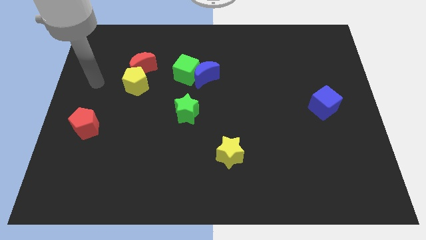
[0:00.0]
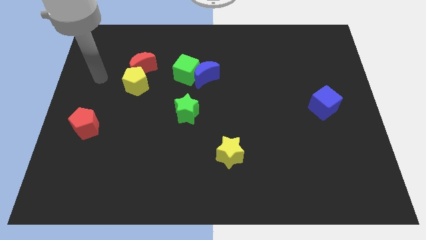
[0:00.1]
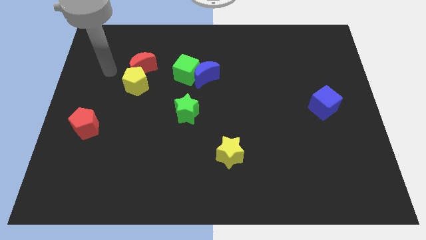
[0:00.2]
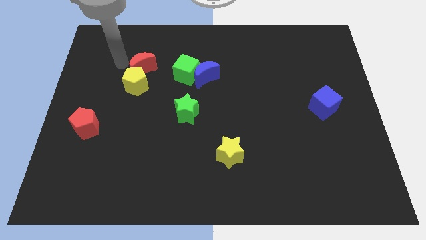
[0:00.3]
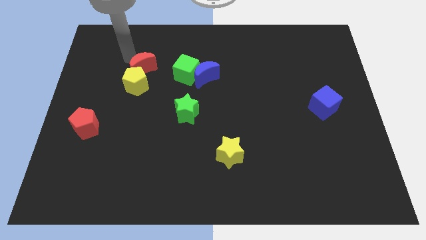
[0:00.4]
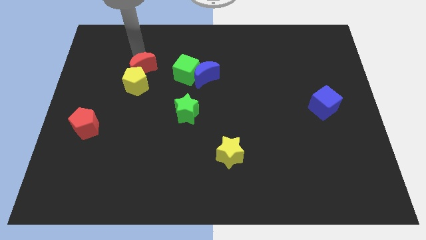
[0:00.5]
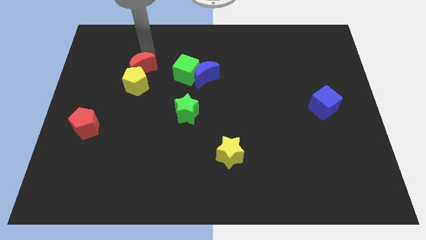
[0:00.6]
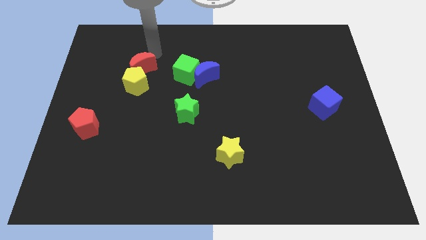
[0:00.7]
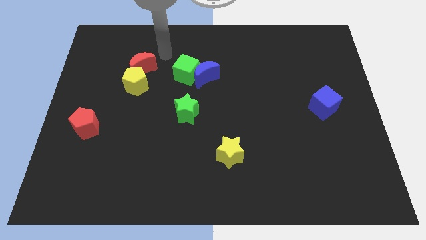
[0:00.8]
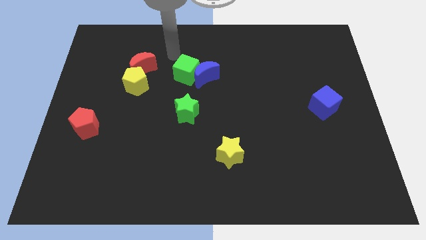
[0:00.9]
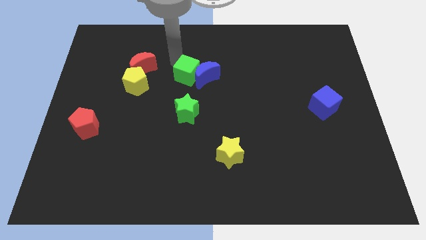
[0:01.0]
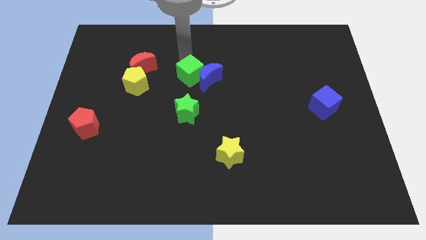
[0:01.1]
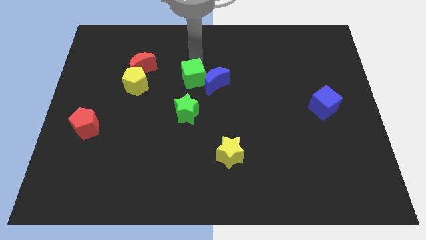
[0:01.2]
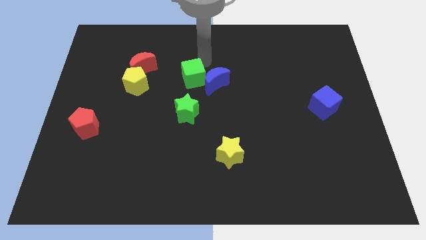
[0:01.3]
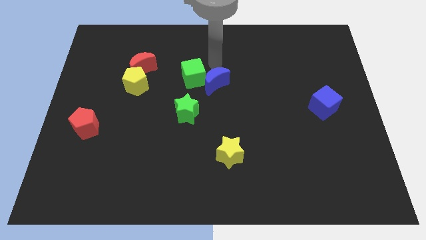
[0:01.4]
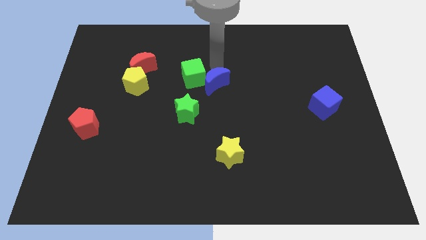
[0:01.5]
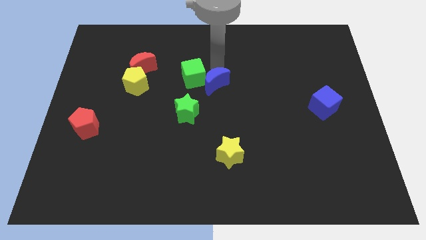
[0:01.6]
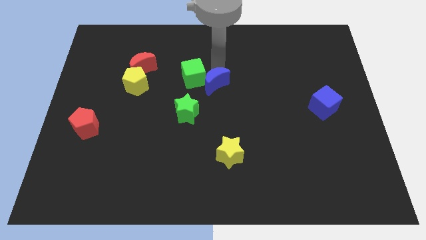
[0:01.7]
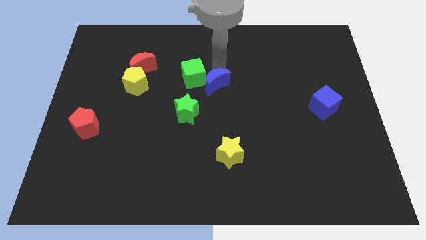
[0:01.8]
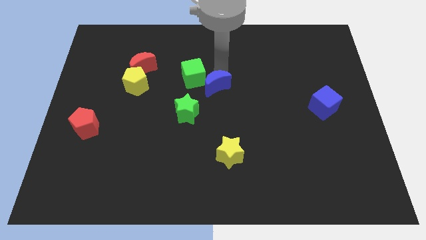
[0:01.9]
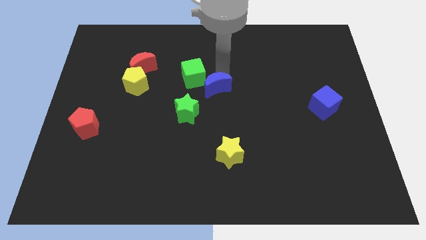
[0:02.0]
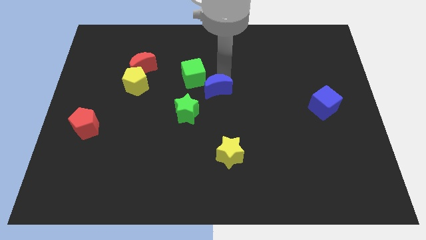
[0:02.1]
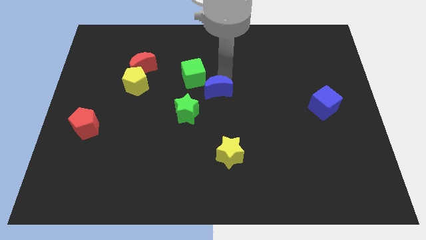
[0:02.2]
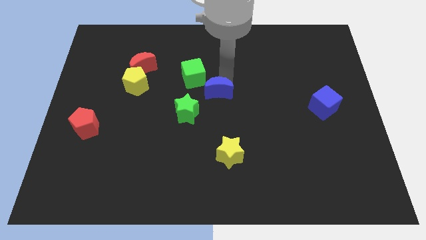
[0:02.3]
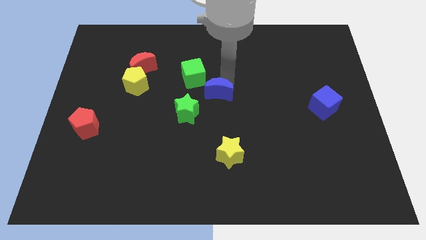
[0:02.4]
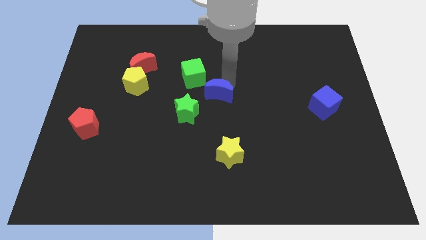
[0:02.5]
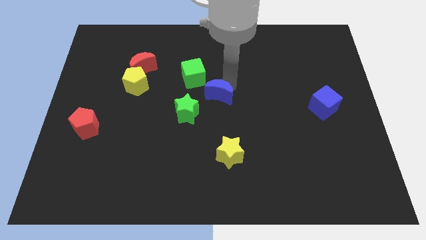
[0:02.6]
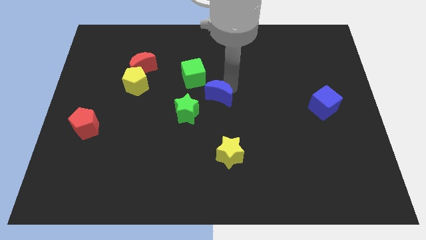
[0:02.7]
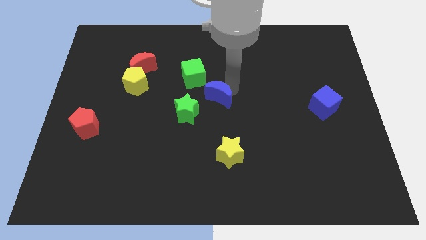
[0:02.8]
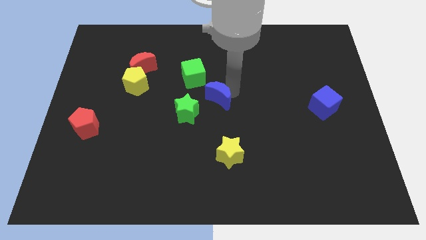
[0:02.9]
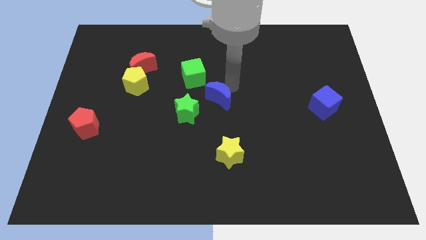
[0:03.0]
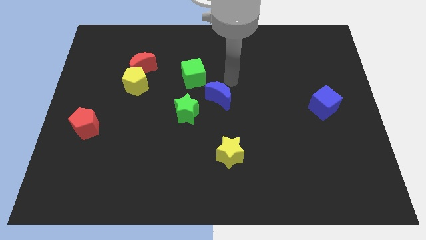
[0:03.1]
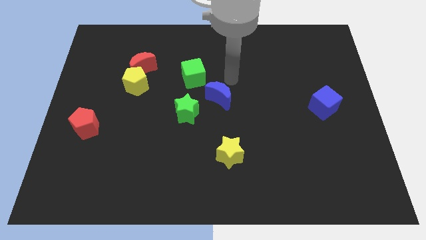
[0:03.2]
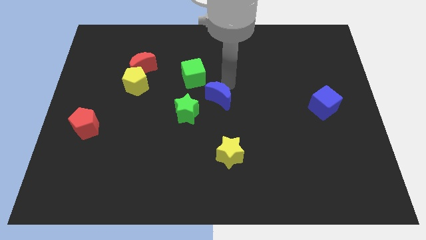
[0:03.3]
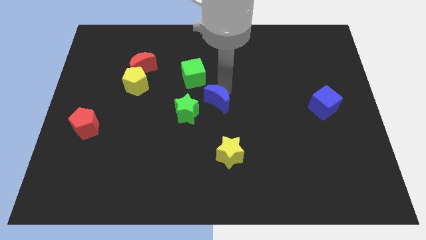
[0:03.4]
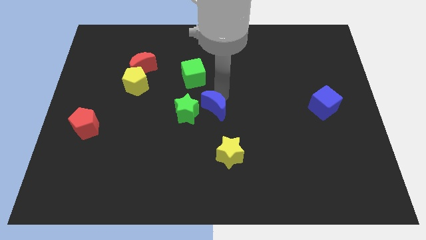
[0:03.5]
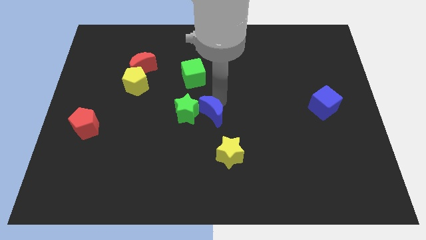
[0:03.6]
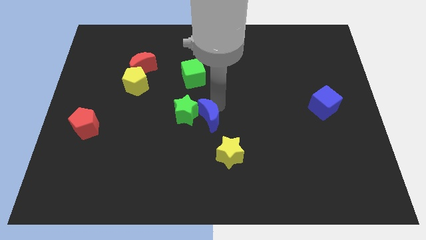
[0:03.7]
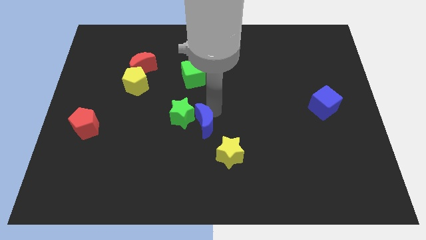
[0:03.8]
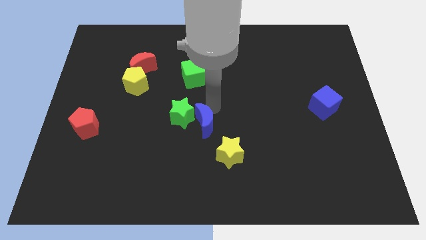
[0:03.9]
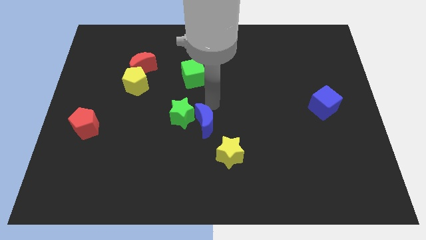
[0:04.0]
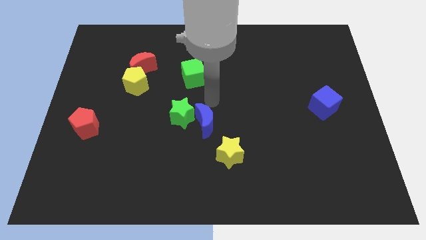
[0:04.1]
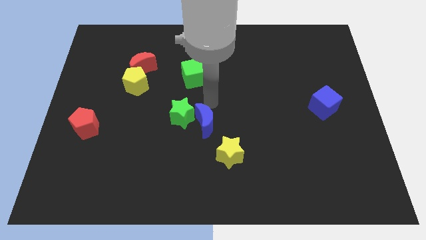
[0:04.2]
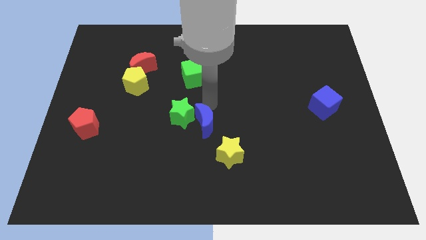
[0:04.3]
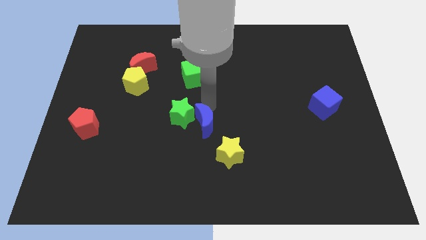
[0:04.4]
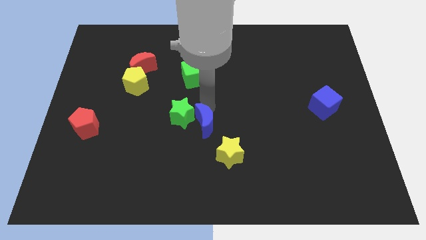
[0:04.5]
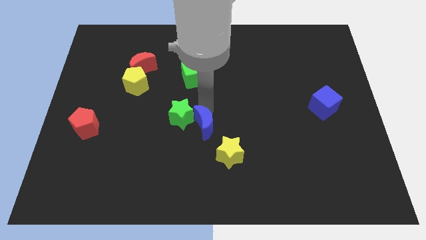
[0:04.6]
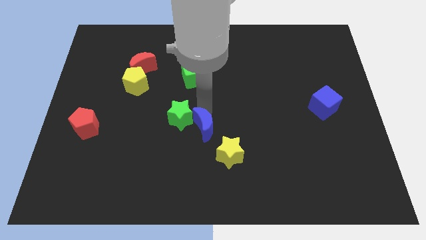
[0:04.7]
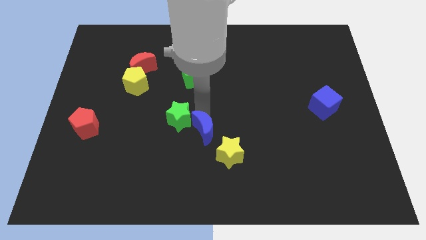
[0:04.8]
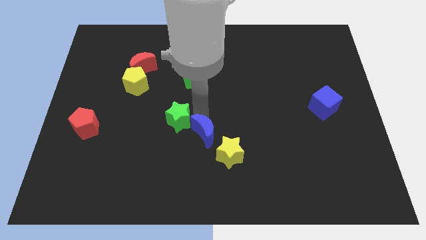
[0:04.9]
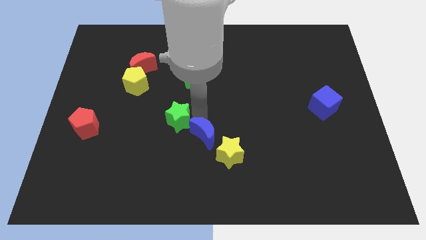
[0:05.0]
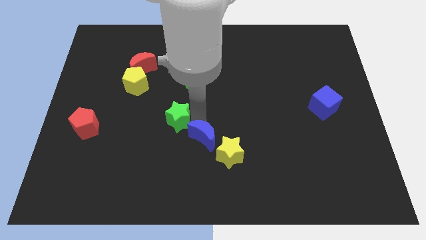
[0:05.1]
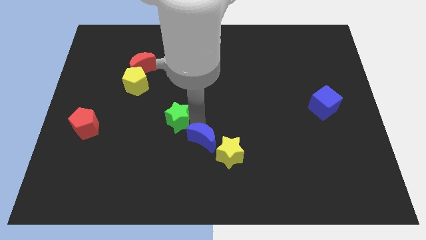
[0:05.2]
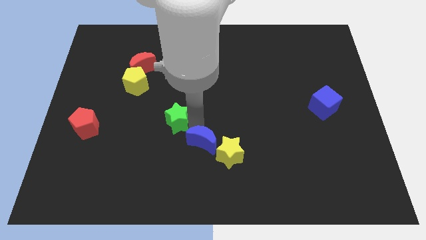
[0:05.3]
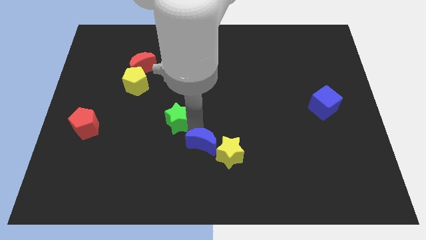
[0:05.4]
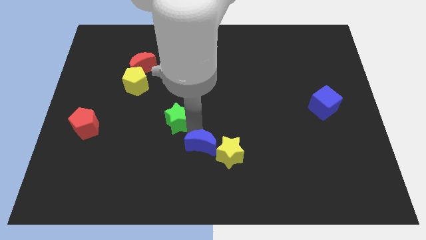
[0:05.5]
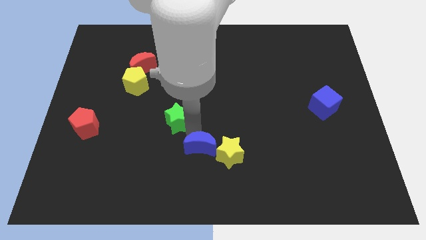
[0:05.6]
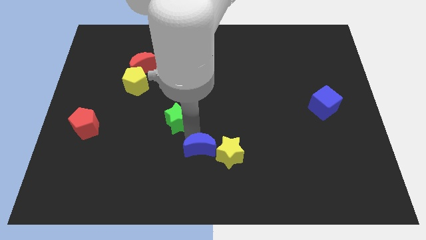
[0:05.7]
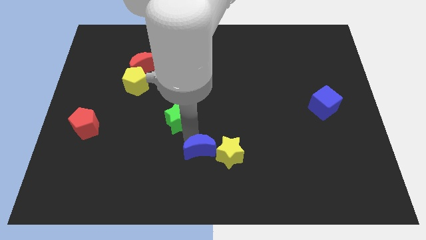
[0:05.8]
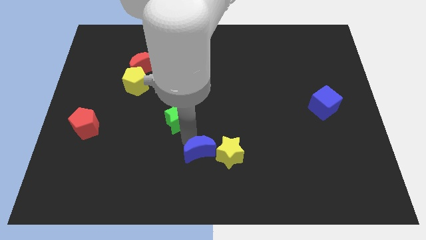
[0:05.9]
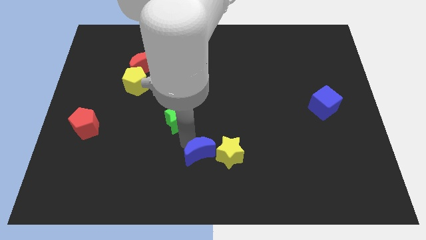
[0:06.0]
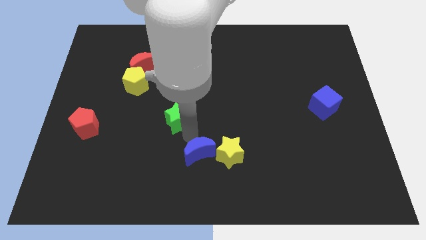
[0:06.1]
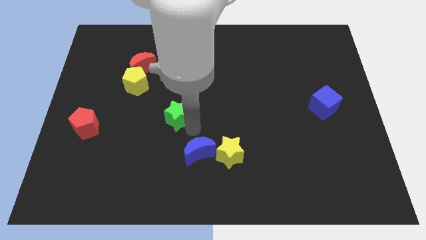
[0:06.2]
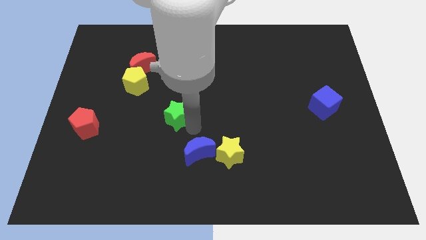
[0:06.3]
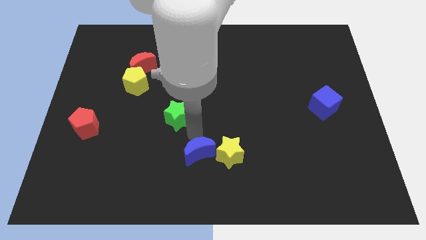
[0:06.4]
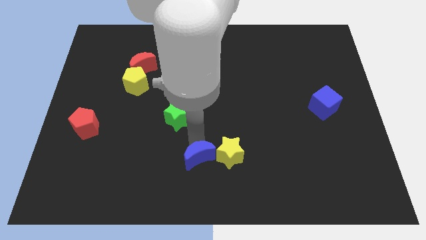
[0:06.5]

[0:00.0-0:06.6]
slide the blue moon to the bottom
